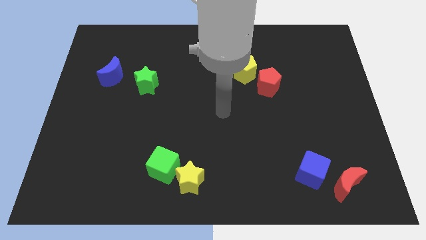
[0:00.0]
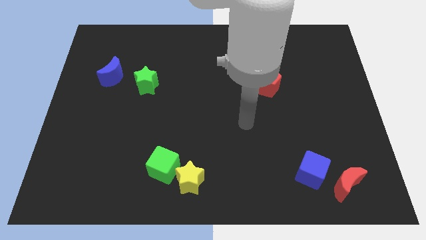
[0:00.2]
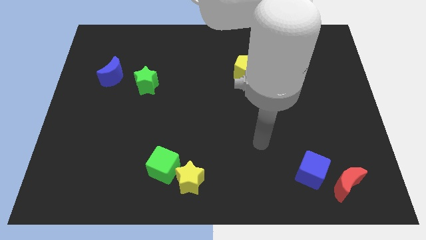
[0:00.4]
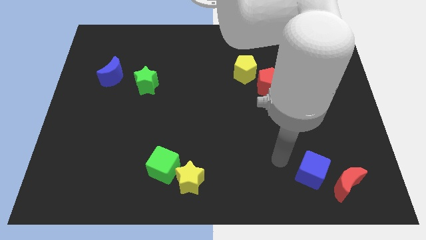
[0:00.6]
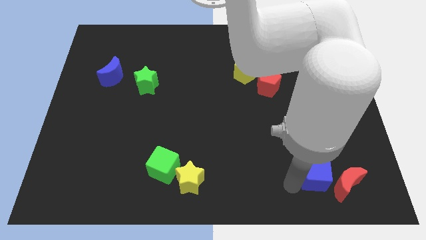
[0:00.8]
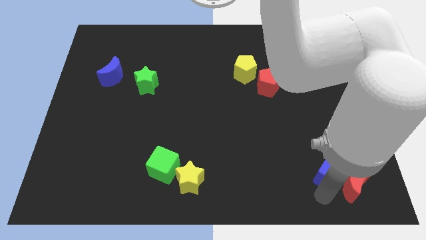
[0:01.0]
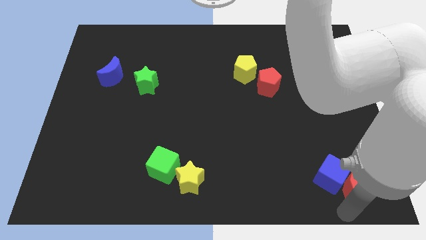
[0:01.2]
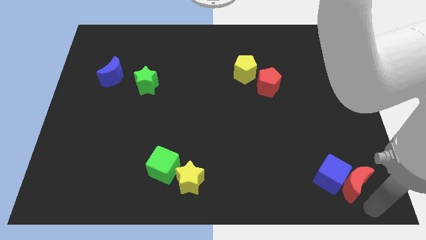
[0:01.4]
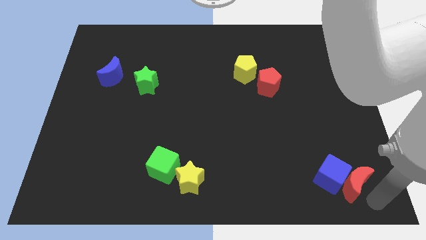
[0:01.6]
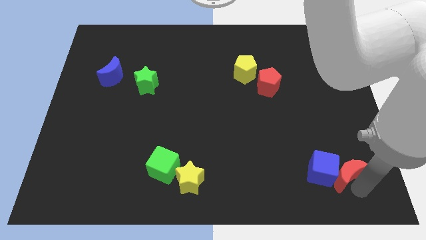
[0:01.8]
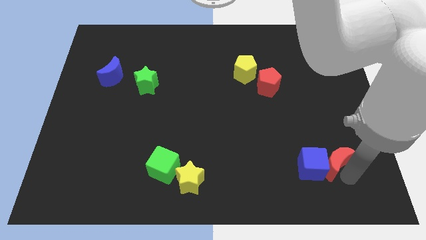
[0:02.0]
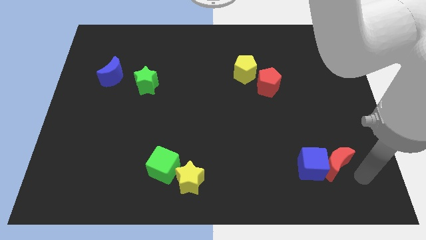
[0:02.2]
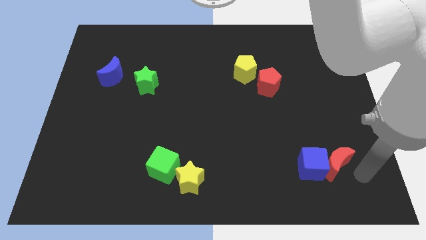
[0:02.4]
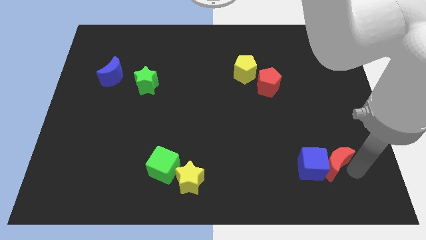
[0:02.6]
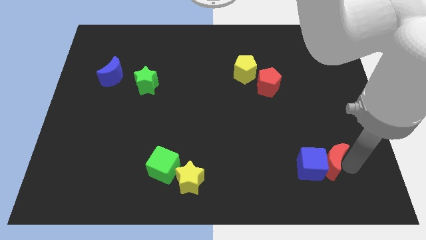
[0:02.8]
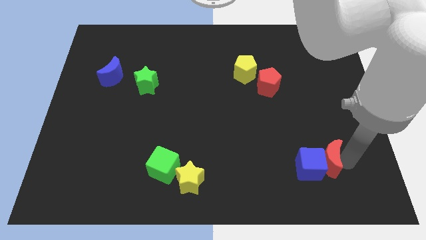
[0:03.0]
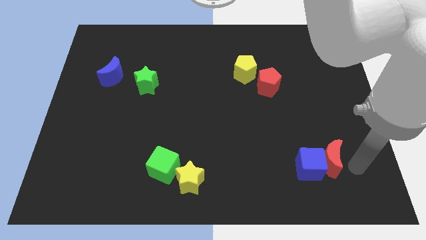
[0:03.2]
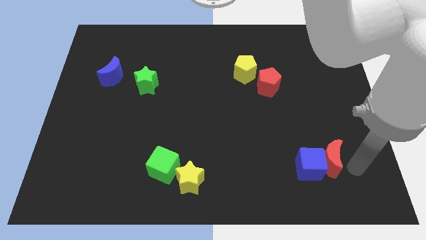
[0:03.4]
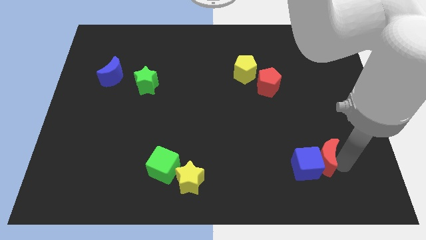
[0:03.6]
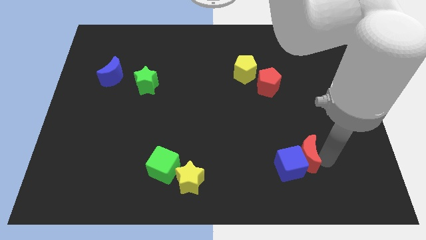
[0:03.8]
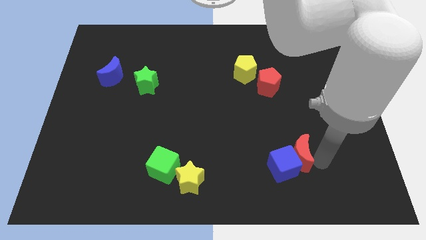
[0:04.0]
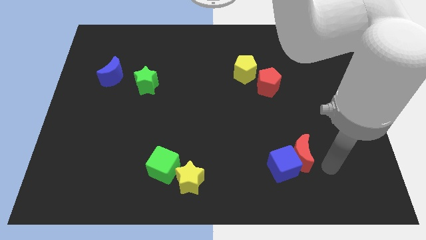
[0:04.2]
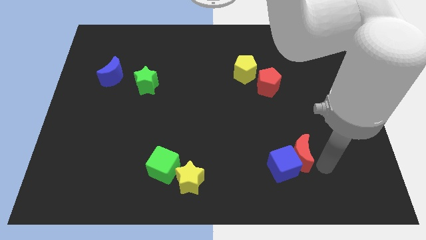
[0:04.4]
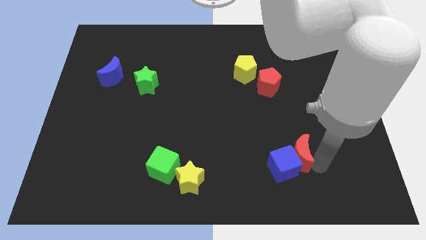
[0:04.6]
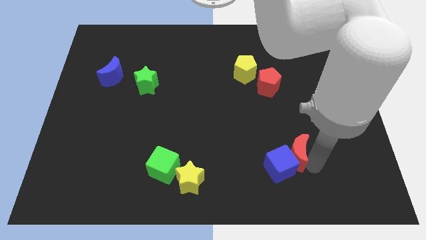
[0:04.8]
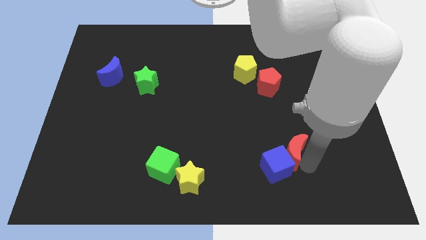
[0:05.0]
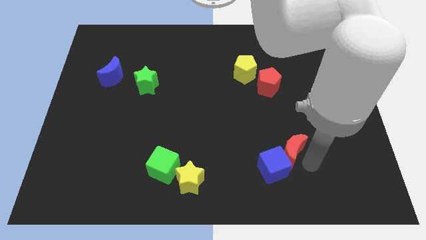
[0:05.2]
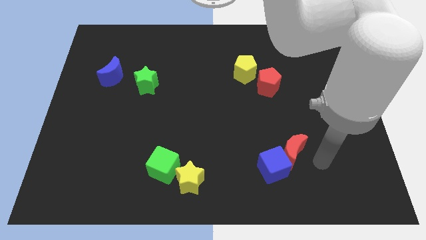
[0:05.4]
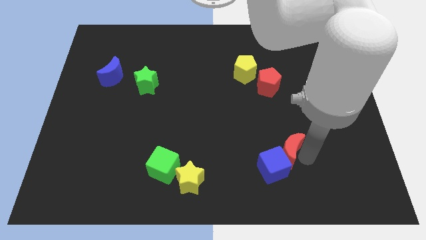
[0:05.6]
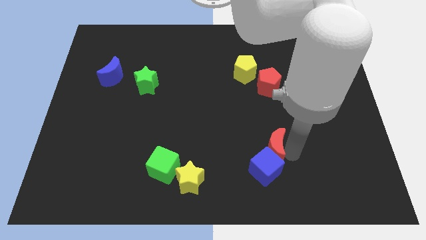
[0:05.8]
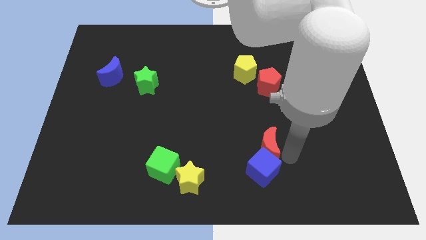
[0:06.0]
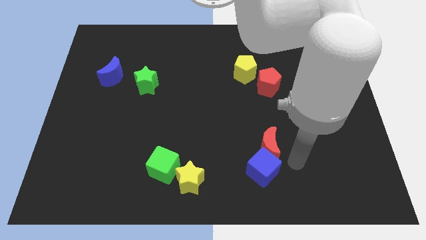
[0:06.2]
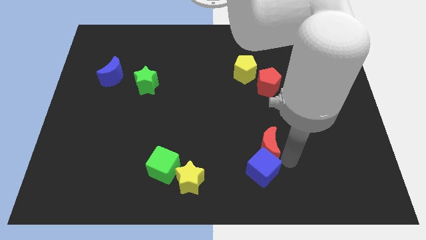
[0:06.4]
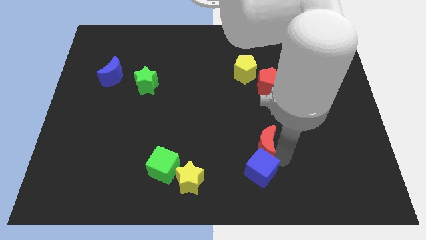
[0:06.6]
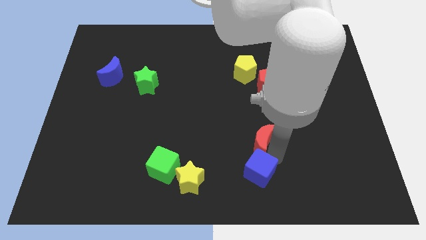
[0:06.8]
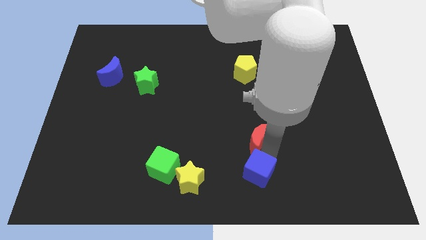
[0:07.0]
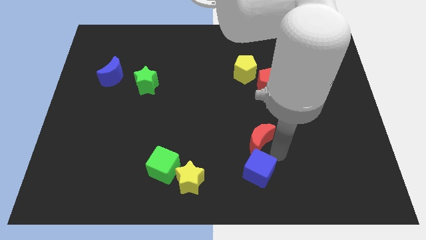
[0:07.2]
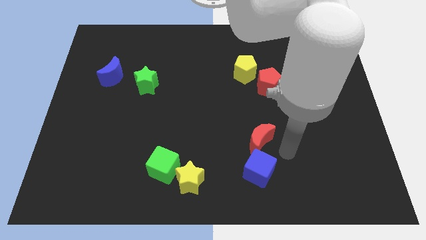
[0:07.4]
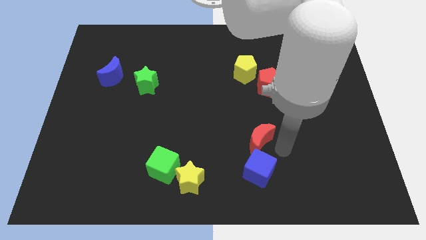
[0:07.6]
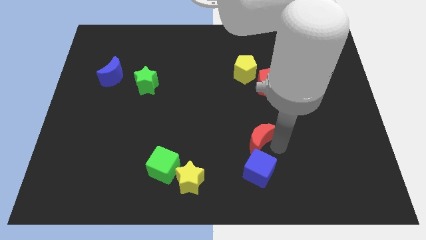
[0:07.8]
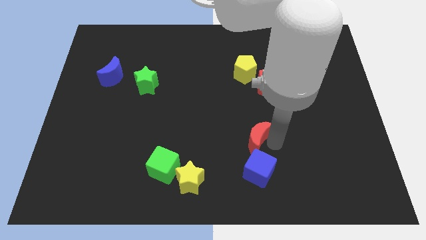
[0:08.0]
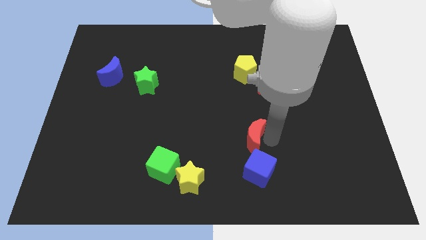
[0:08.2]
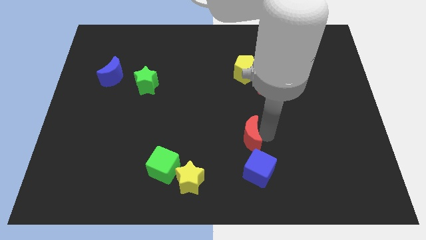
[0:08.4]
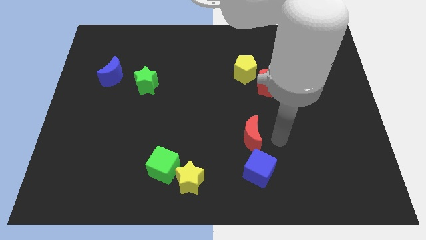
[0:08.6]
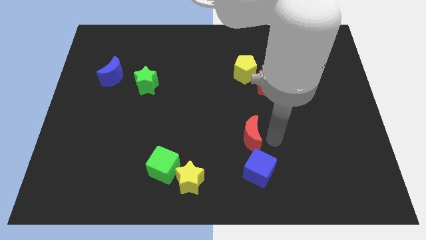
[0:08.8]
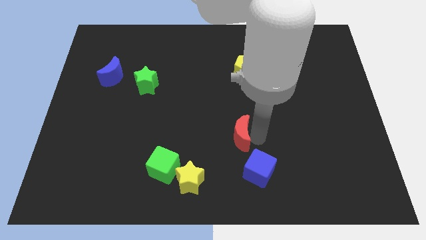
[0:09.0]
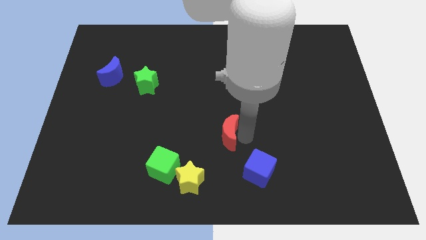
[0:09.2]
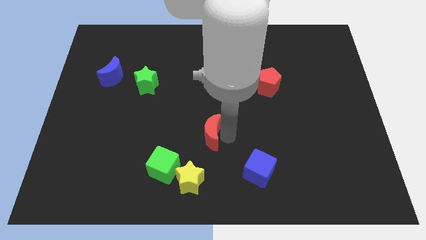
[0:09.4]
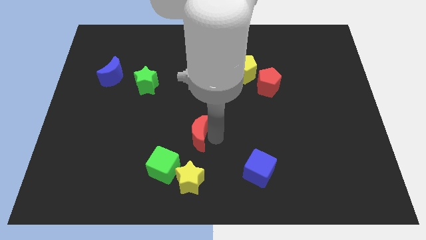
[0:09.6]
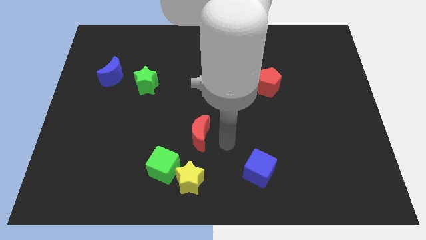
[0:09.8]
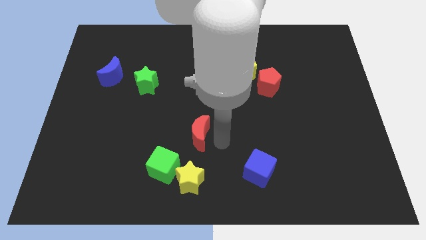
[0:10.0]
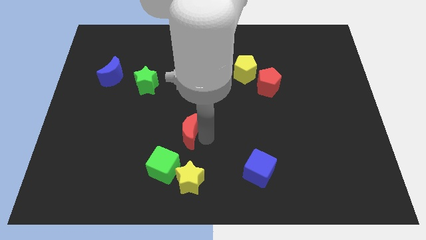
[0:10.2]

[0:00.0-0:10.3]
push the red moon to the top side of the green cube

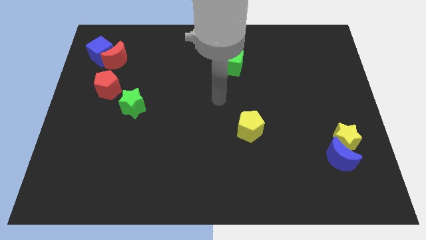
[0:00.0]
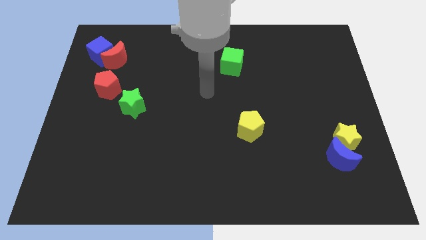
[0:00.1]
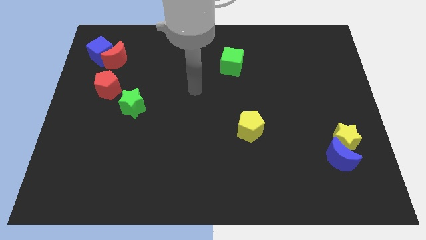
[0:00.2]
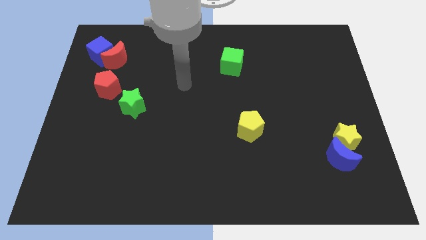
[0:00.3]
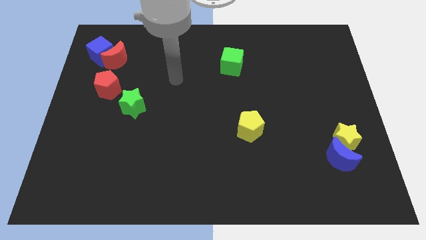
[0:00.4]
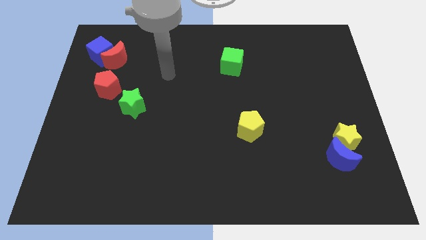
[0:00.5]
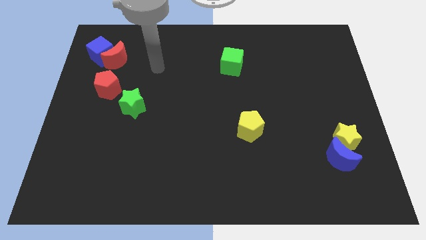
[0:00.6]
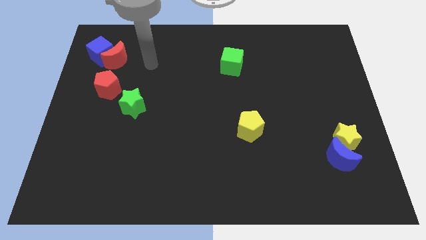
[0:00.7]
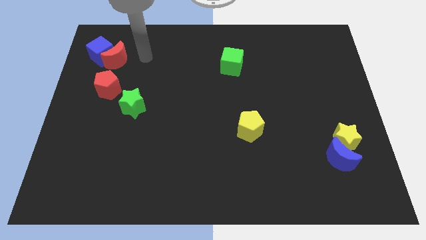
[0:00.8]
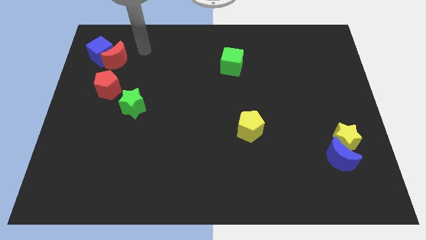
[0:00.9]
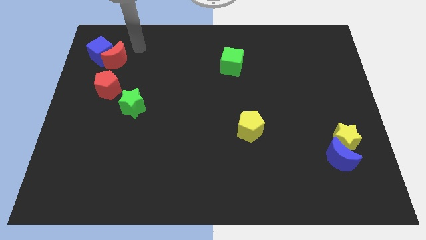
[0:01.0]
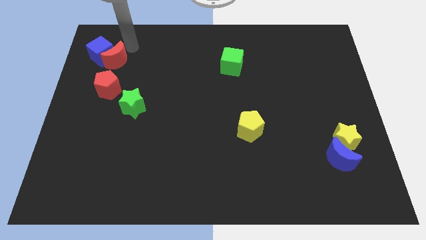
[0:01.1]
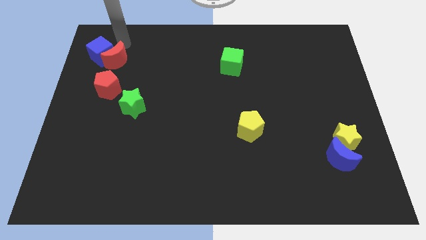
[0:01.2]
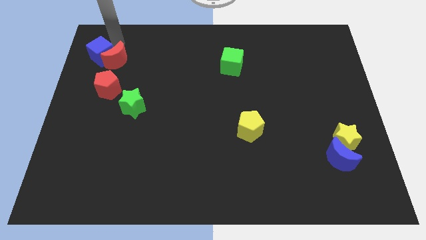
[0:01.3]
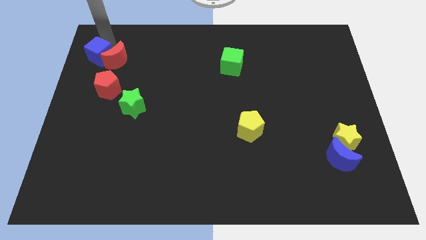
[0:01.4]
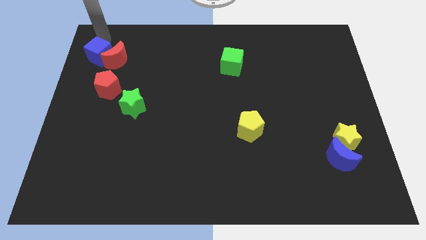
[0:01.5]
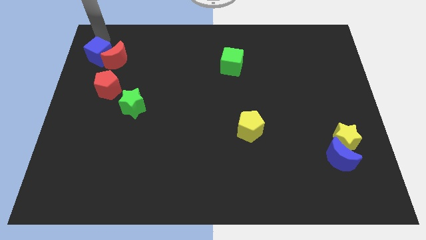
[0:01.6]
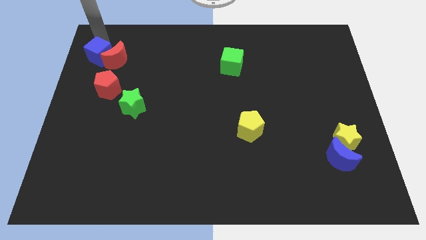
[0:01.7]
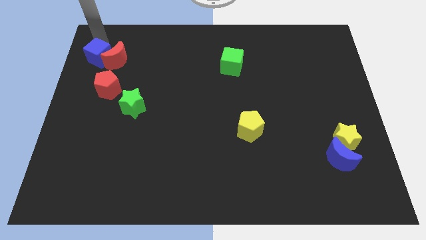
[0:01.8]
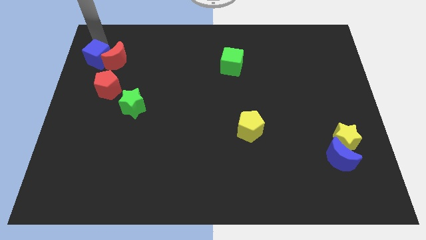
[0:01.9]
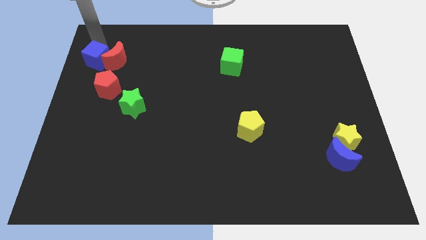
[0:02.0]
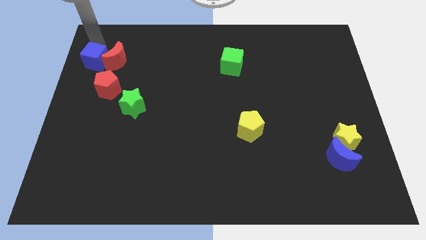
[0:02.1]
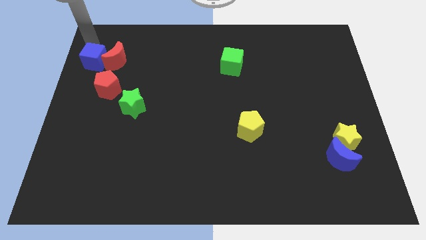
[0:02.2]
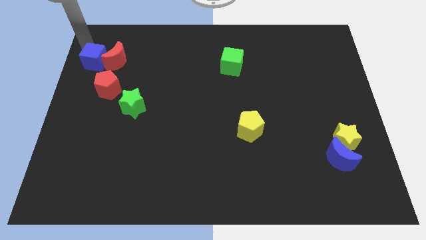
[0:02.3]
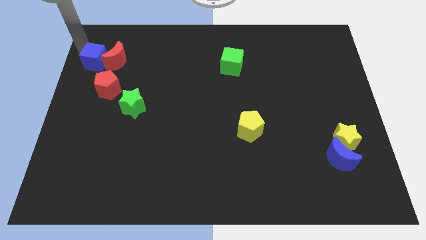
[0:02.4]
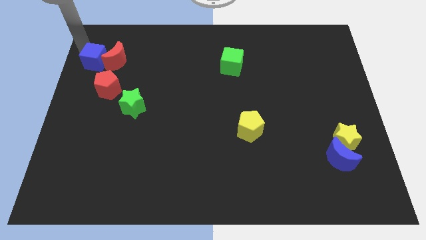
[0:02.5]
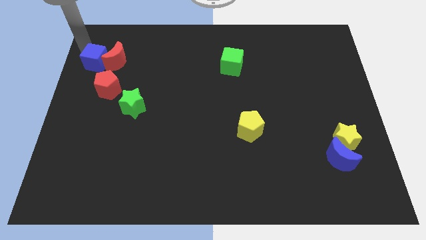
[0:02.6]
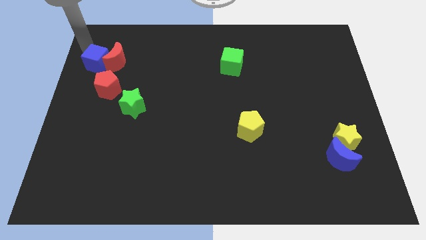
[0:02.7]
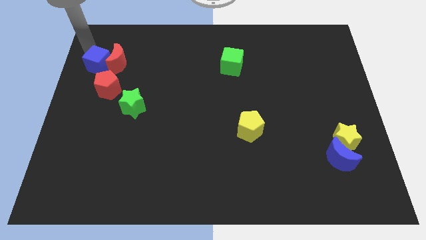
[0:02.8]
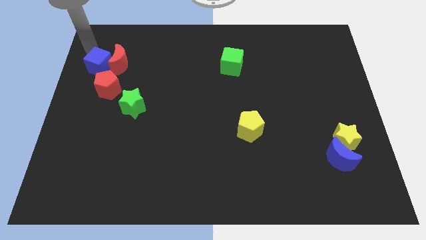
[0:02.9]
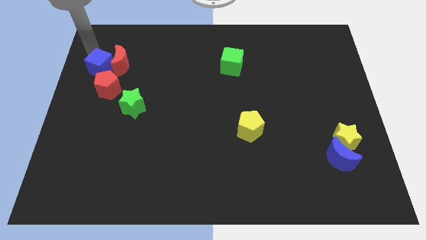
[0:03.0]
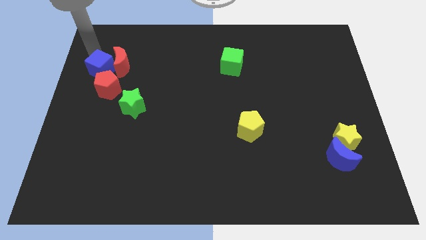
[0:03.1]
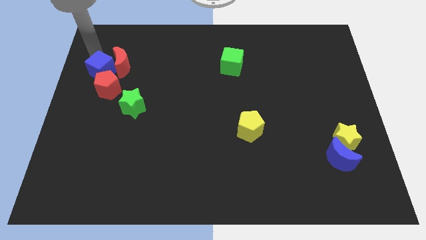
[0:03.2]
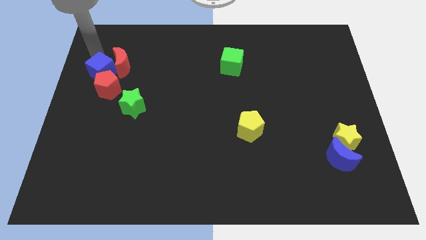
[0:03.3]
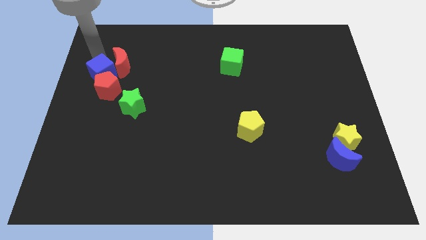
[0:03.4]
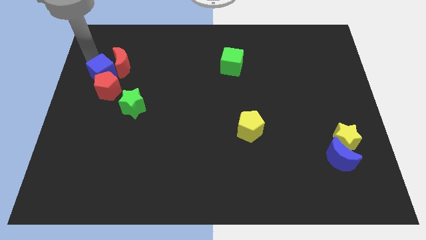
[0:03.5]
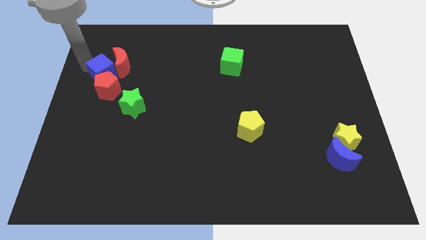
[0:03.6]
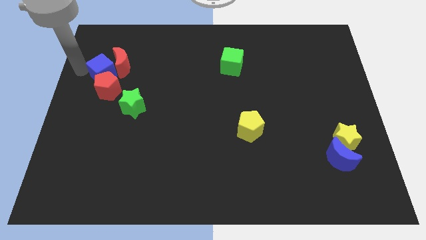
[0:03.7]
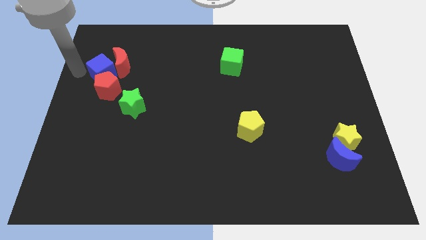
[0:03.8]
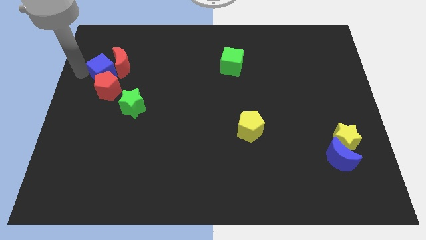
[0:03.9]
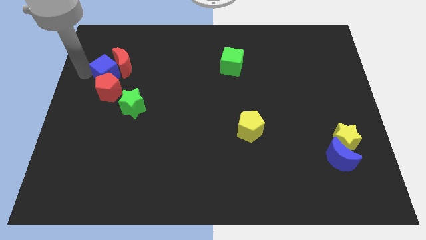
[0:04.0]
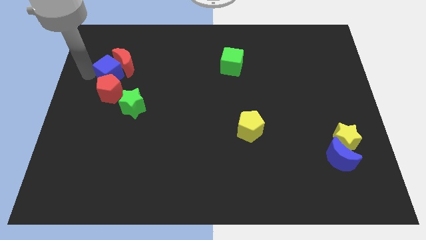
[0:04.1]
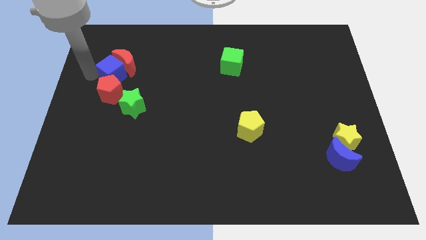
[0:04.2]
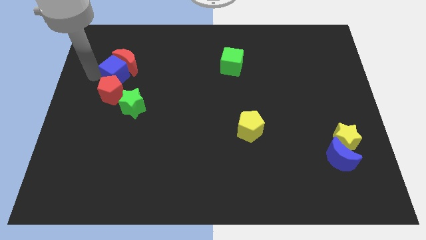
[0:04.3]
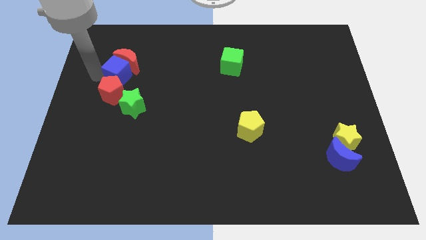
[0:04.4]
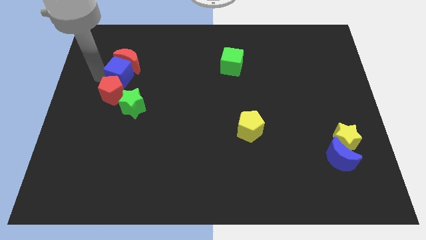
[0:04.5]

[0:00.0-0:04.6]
put the blue cube above the green star
